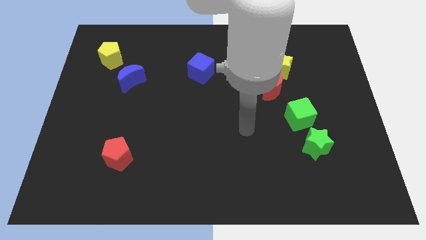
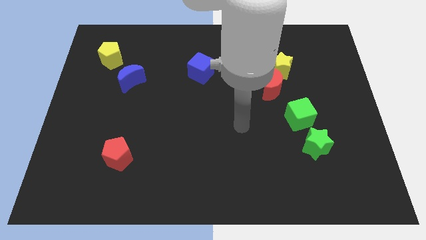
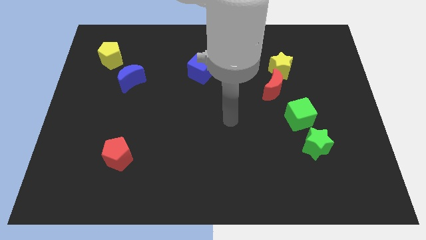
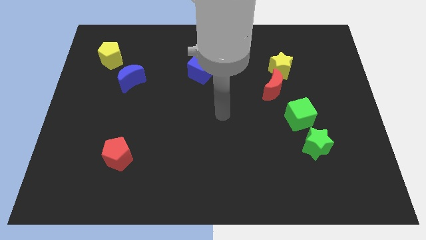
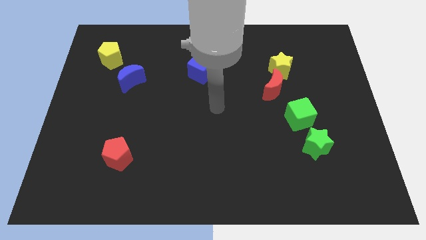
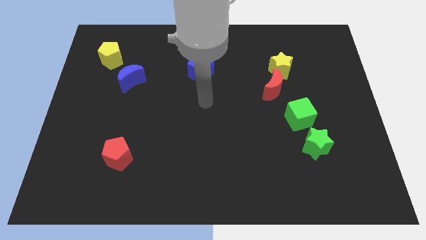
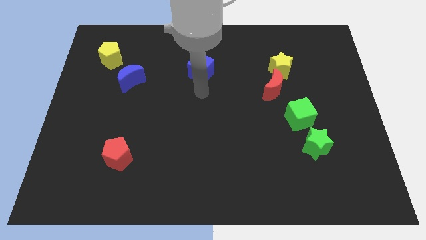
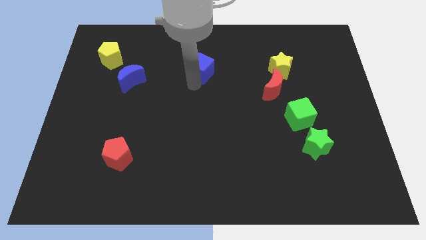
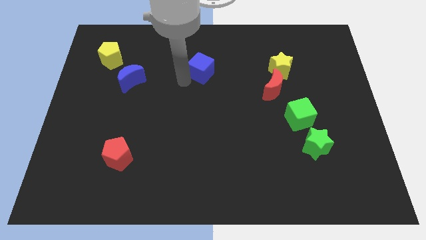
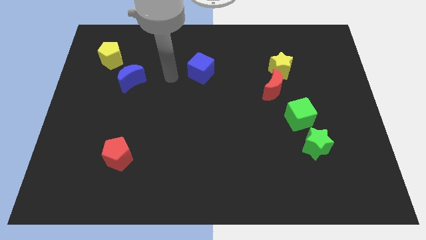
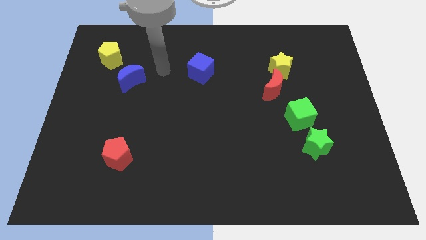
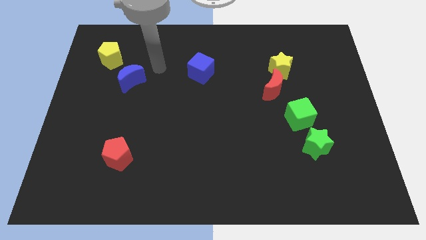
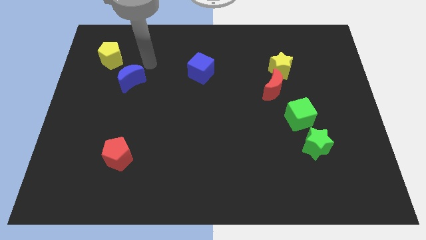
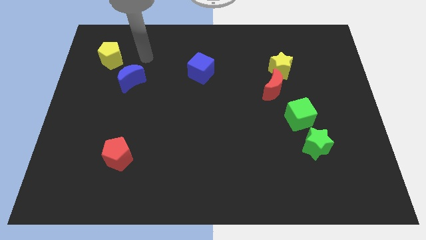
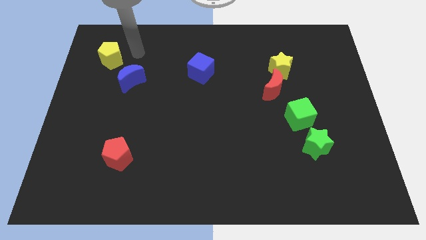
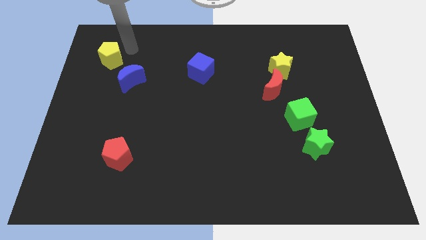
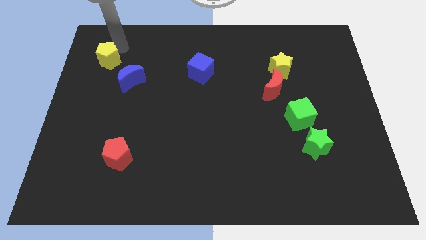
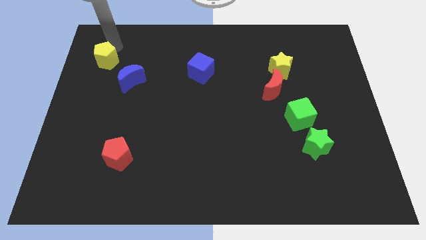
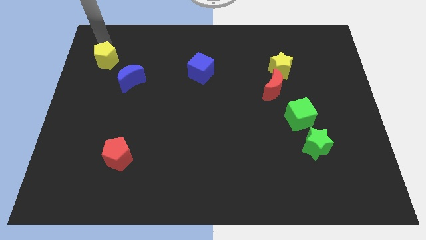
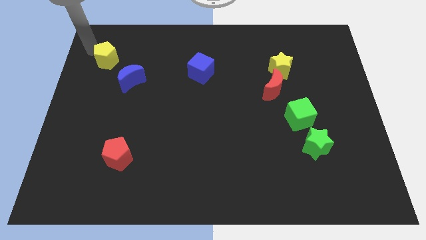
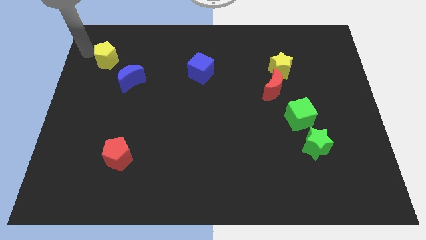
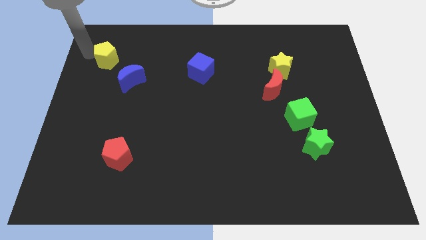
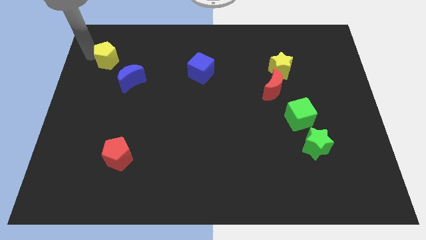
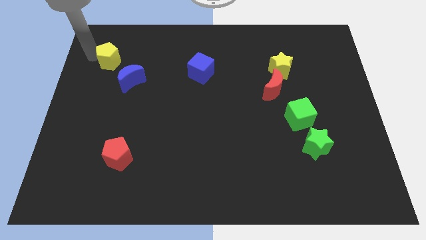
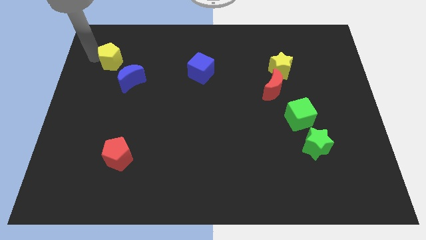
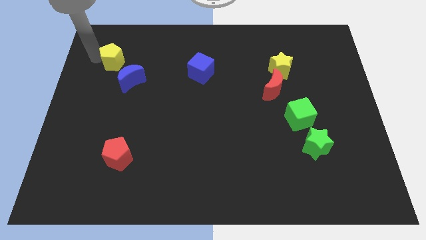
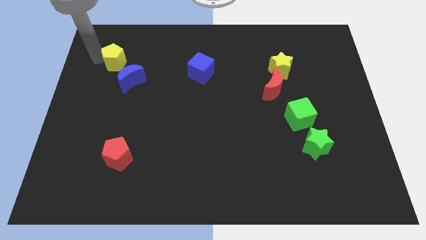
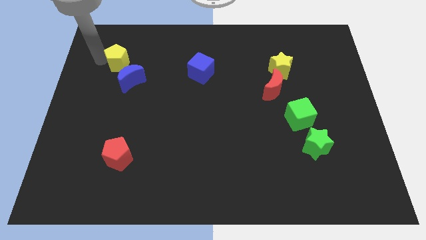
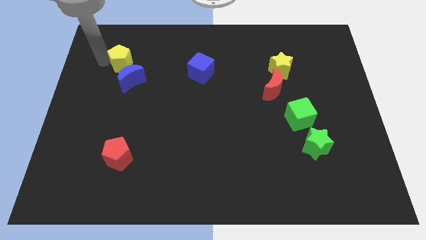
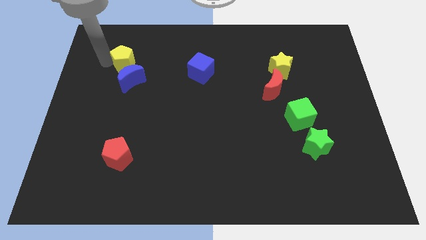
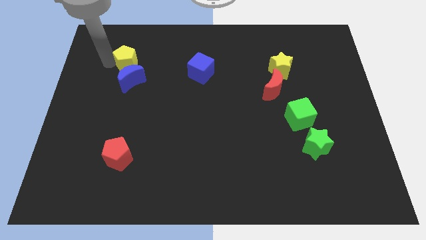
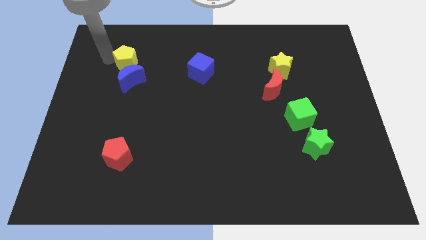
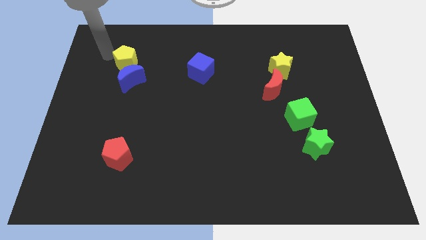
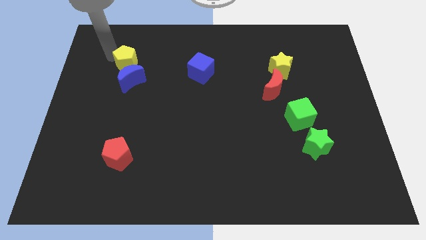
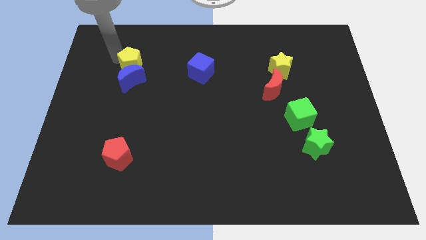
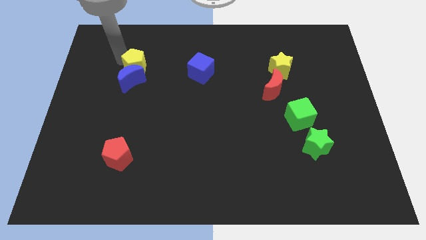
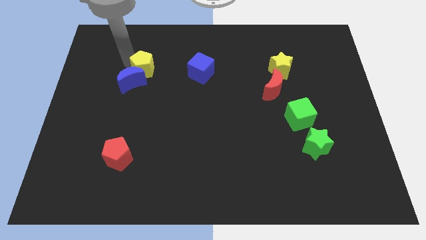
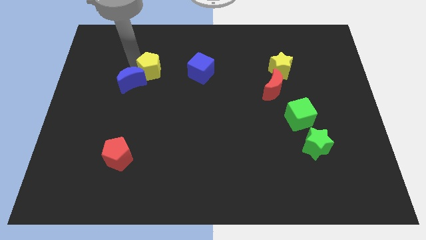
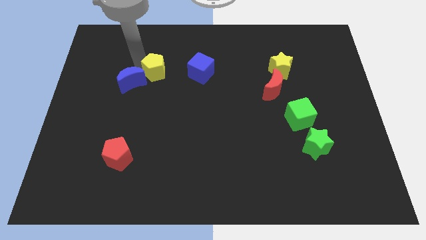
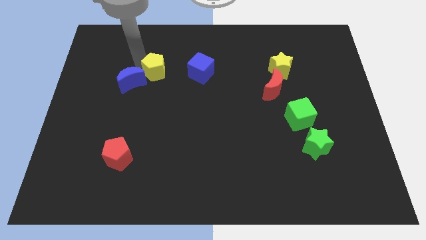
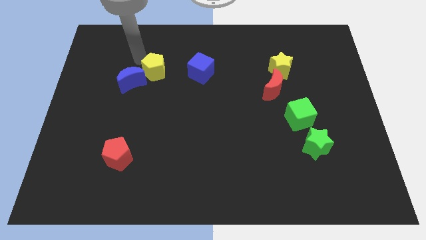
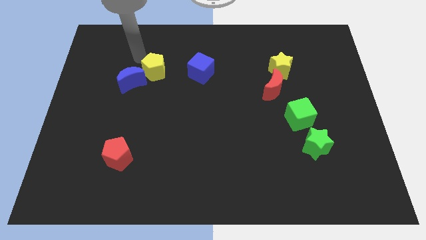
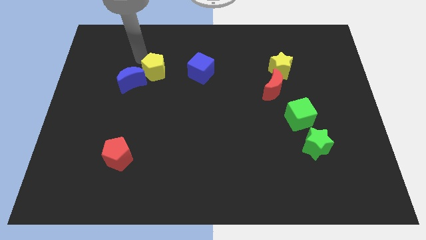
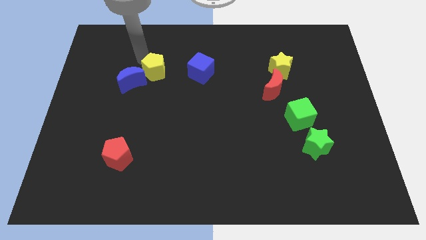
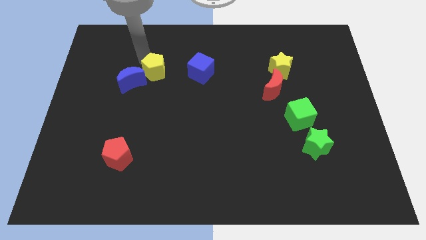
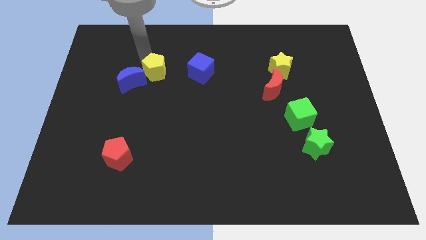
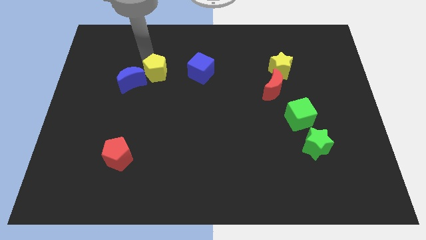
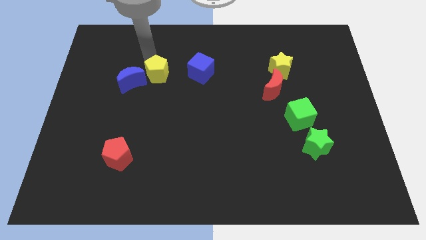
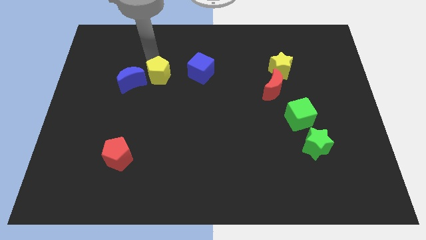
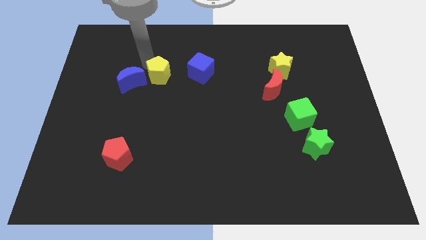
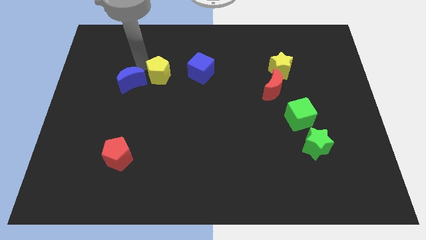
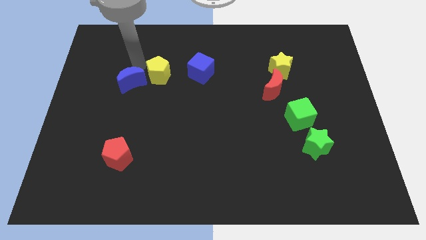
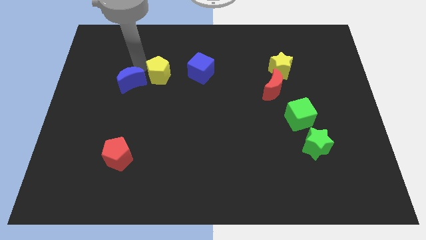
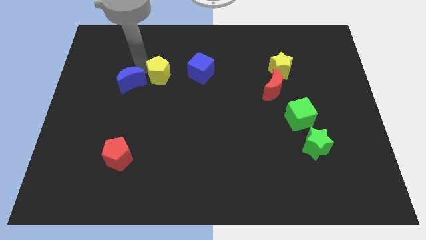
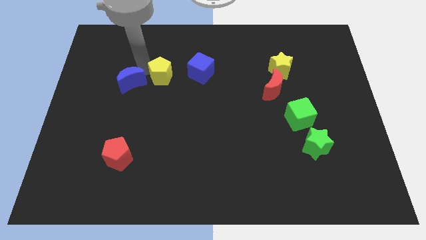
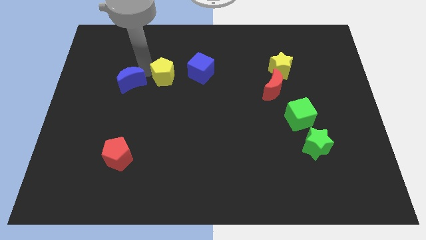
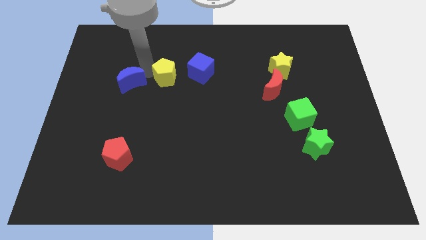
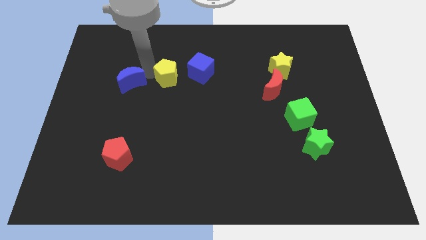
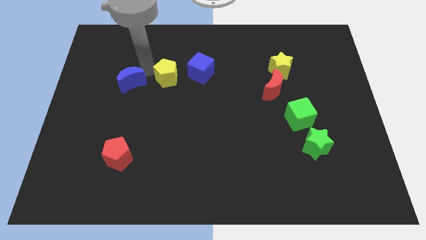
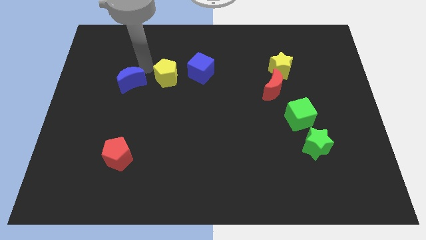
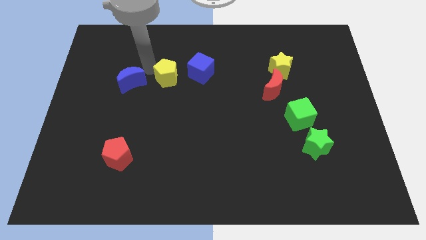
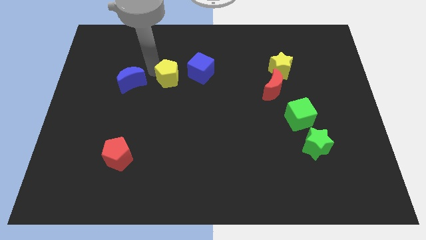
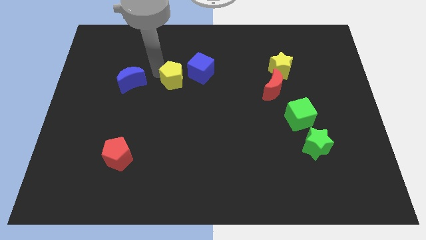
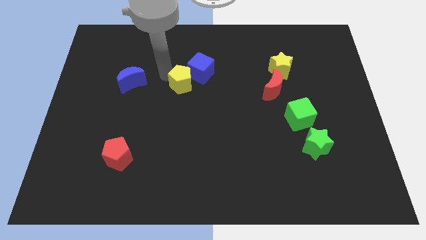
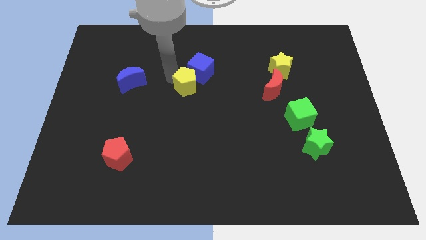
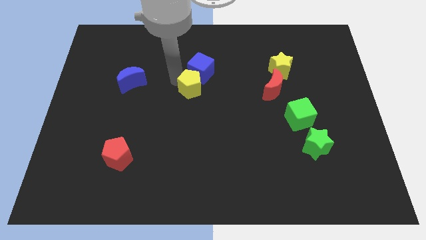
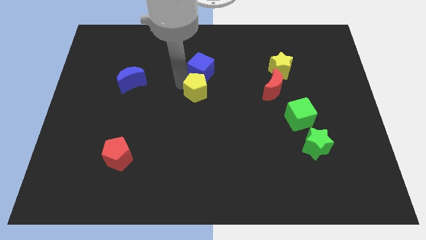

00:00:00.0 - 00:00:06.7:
slide the yellow pentagon diagonally down and to the right of the blue cube

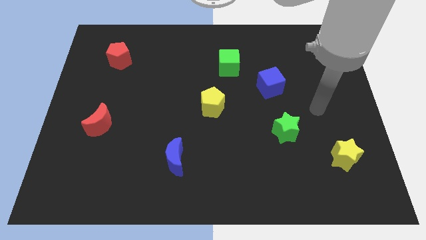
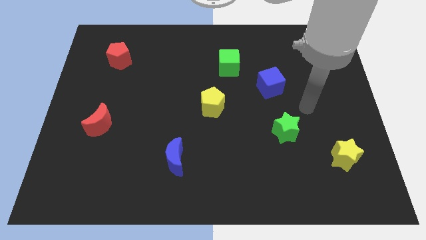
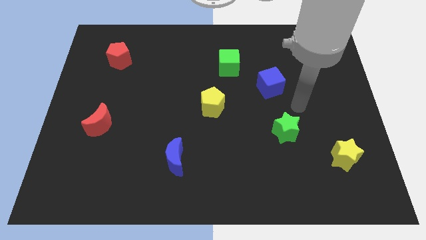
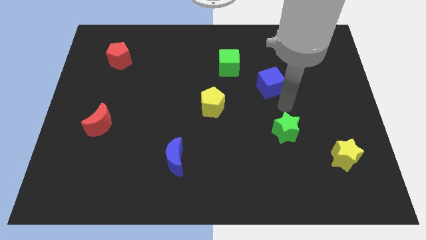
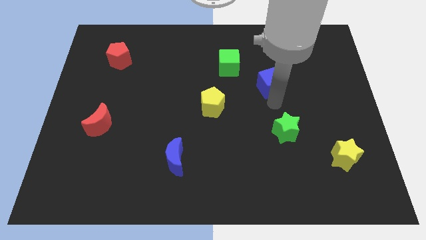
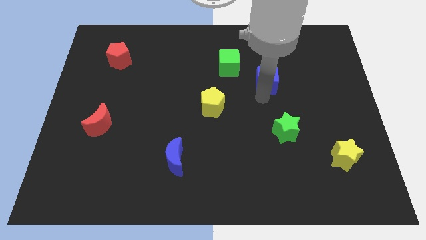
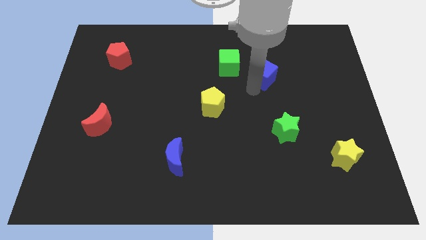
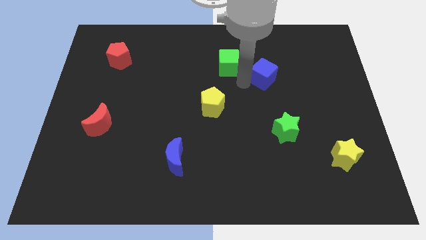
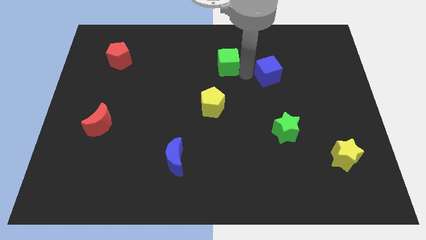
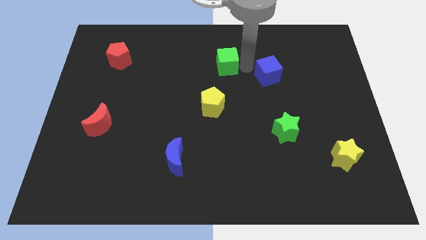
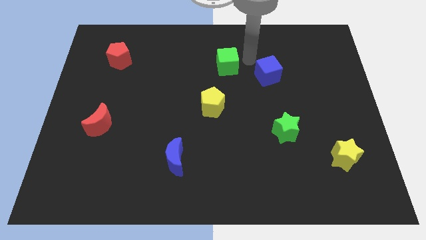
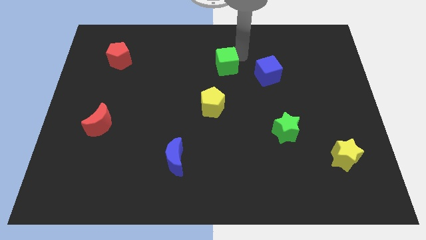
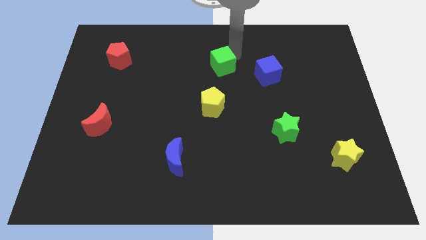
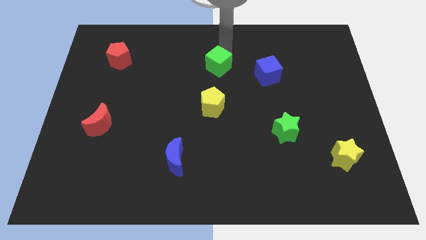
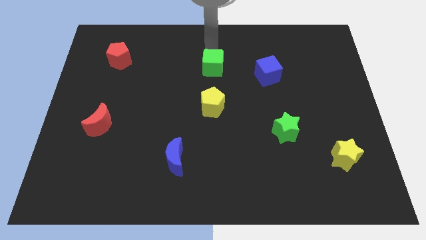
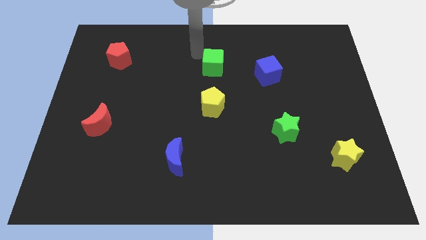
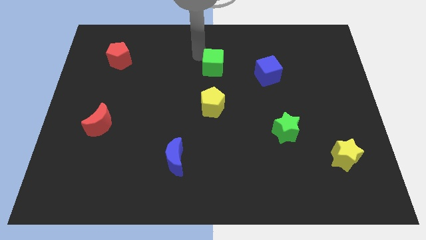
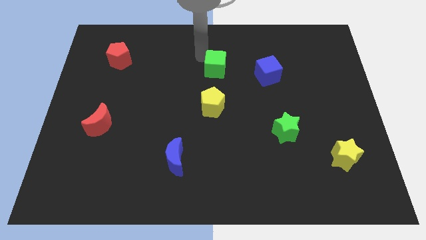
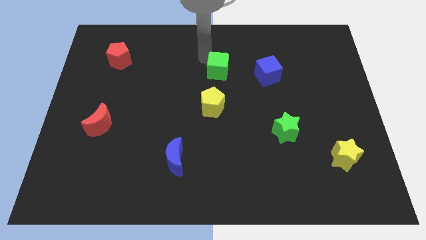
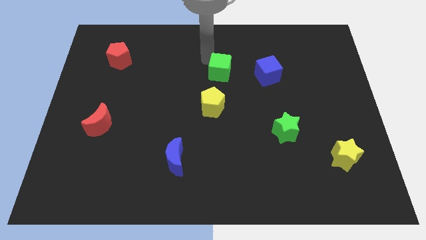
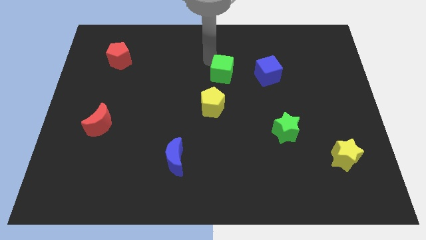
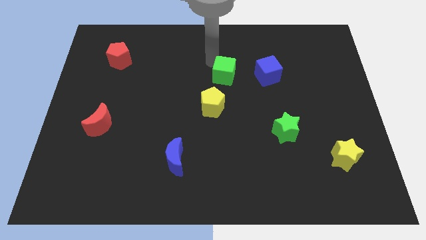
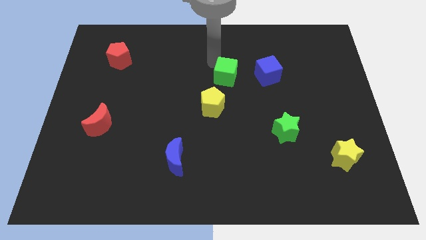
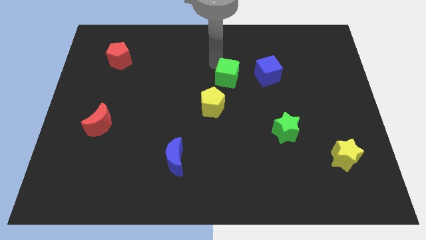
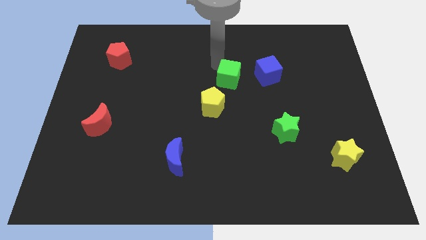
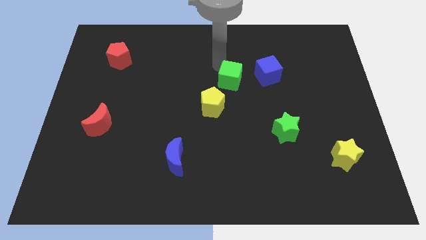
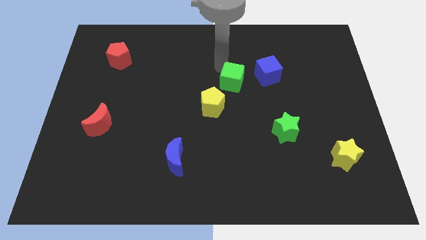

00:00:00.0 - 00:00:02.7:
slide the green cube diagonally down and to the left of the blue cube
